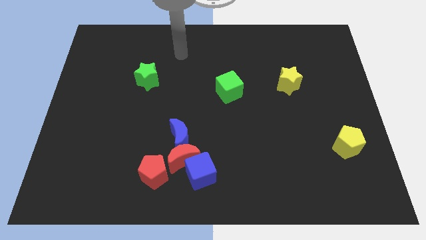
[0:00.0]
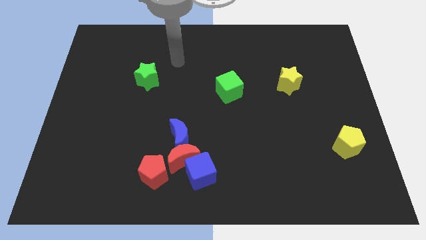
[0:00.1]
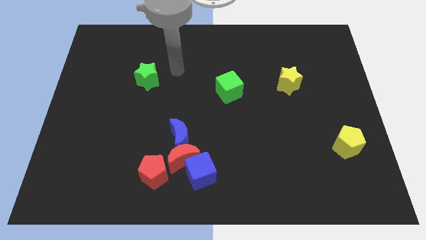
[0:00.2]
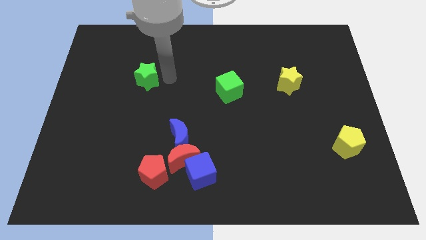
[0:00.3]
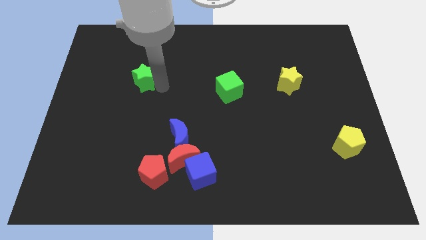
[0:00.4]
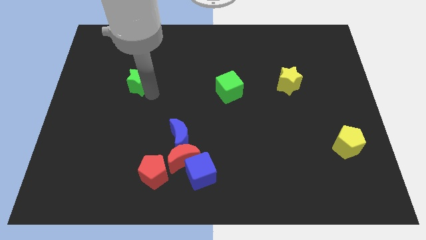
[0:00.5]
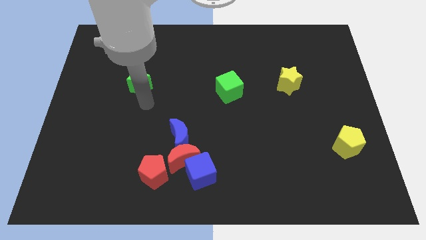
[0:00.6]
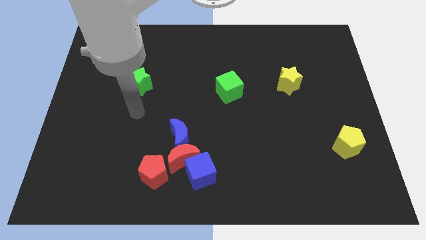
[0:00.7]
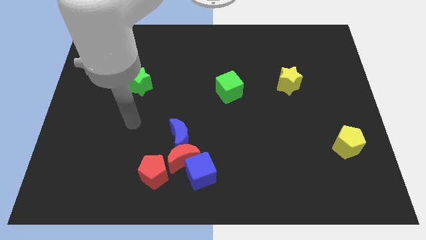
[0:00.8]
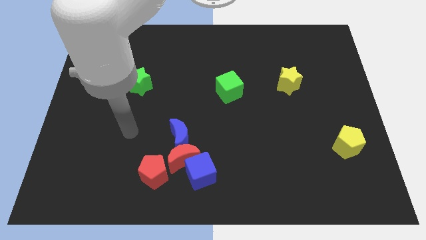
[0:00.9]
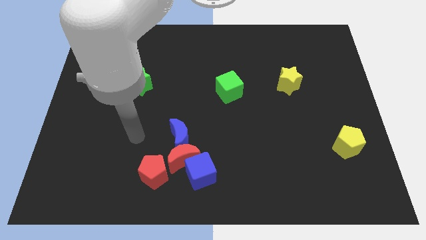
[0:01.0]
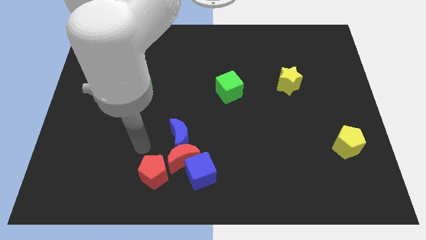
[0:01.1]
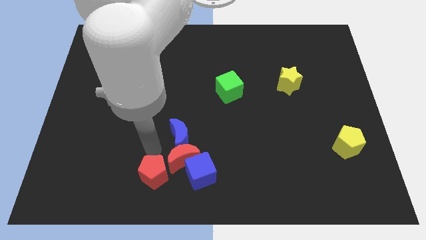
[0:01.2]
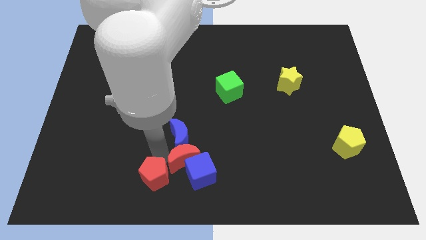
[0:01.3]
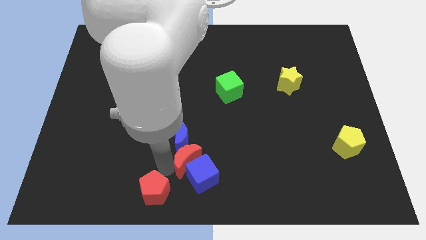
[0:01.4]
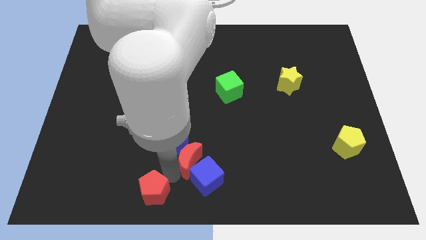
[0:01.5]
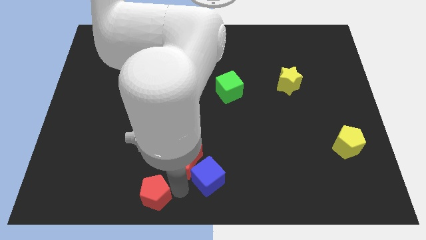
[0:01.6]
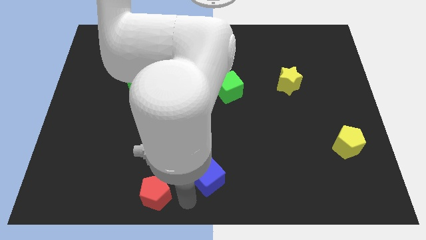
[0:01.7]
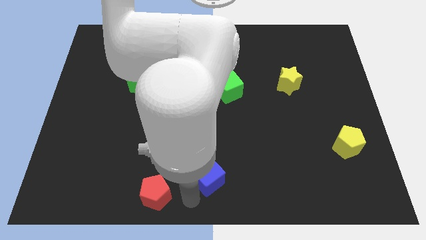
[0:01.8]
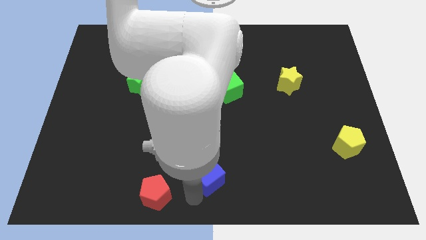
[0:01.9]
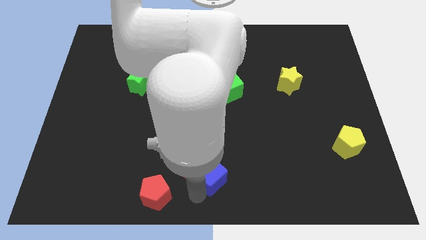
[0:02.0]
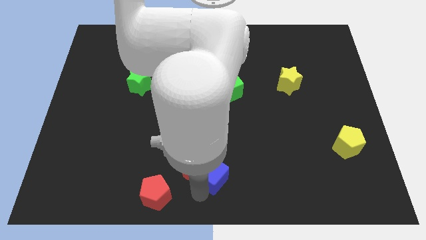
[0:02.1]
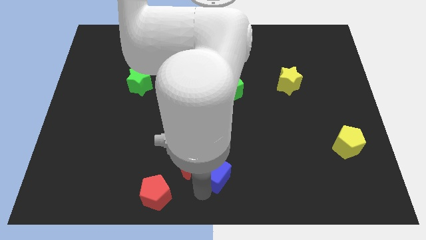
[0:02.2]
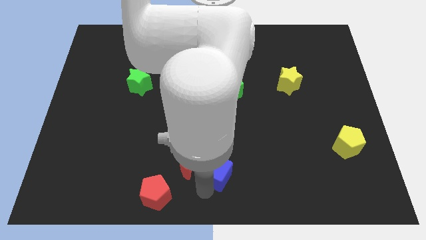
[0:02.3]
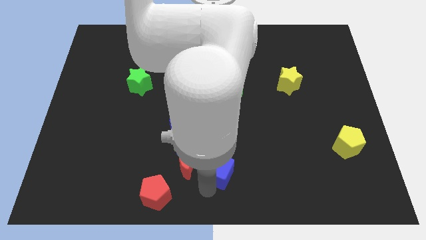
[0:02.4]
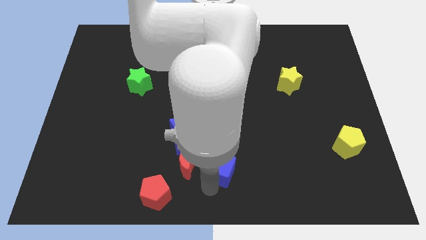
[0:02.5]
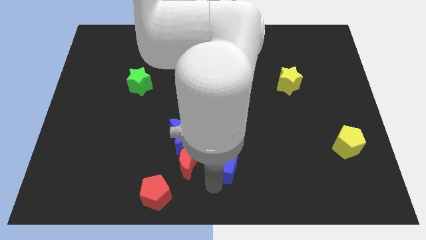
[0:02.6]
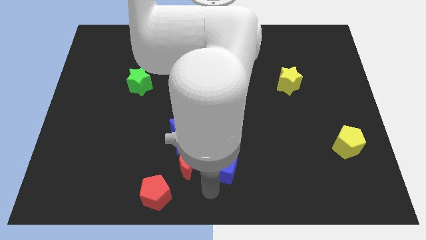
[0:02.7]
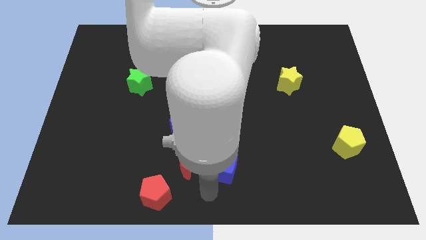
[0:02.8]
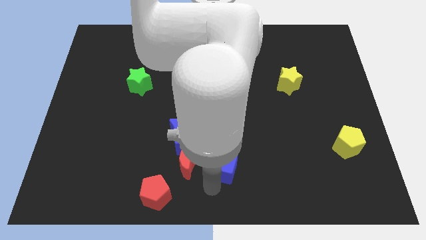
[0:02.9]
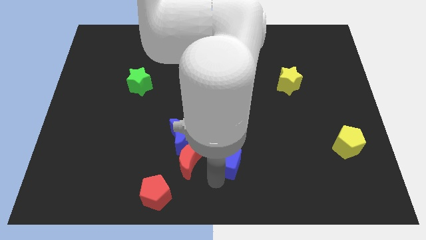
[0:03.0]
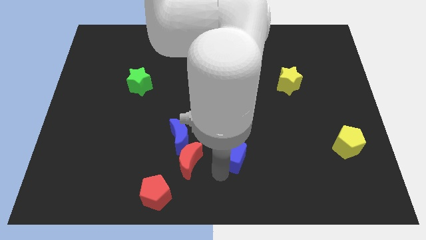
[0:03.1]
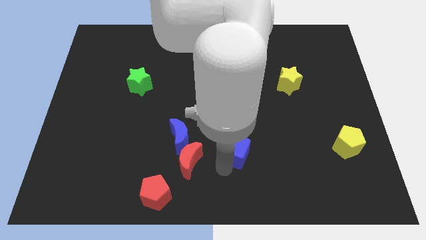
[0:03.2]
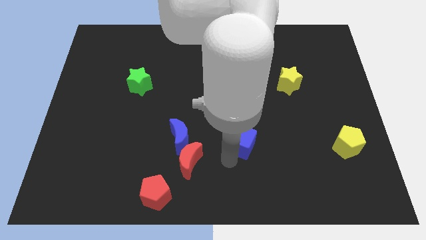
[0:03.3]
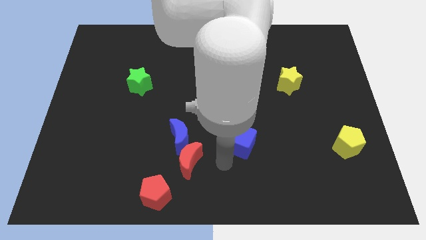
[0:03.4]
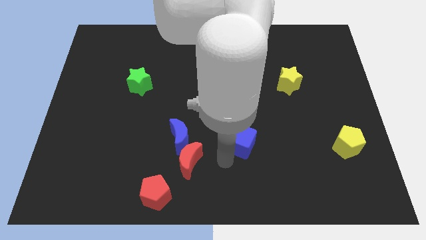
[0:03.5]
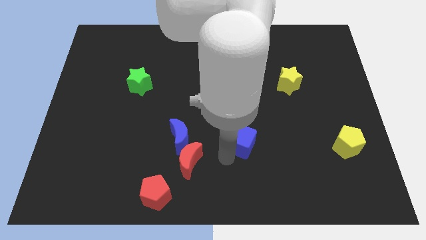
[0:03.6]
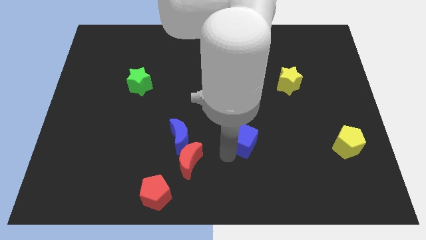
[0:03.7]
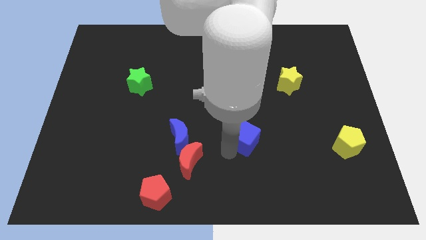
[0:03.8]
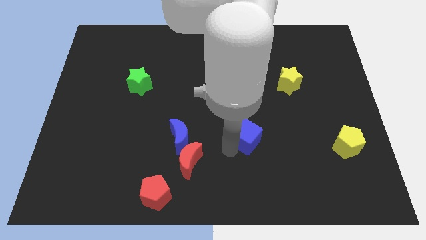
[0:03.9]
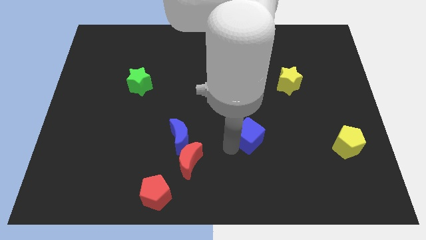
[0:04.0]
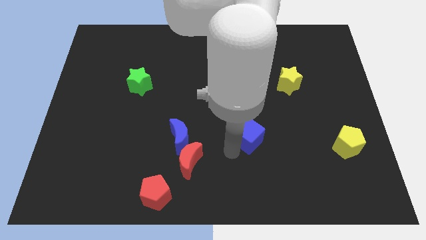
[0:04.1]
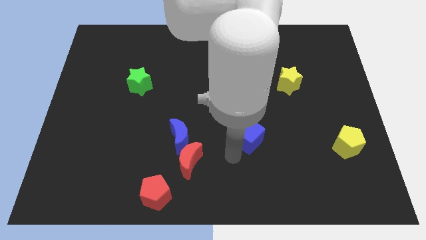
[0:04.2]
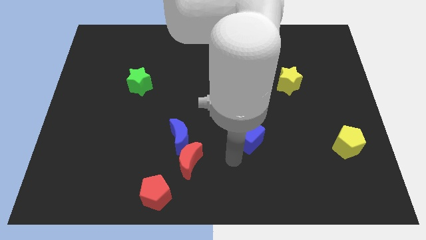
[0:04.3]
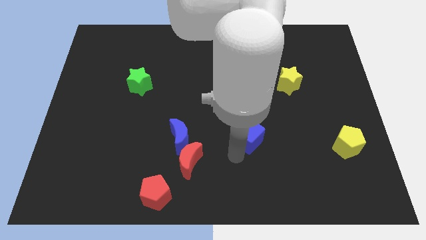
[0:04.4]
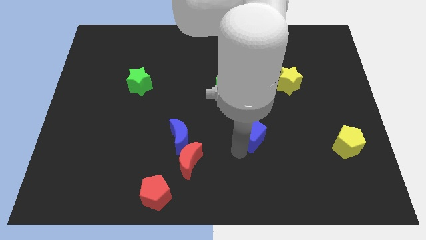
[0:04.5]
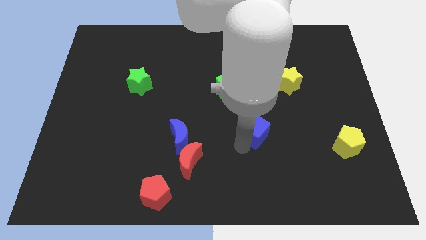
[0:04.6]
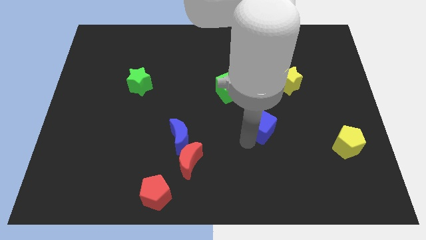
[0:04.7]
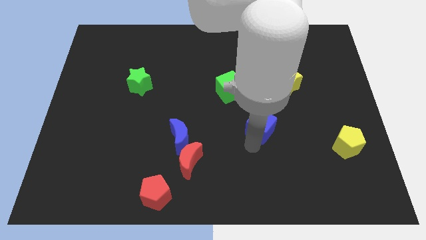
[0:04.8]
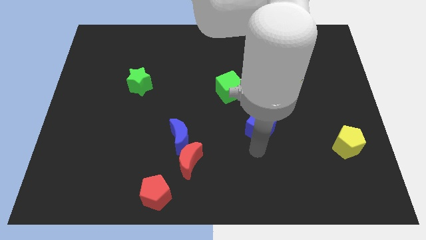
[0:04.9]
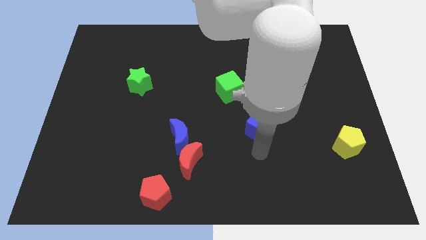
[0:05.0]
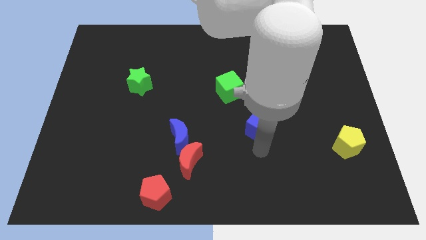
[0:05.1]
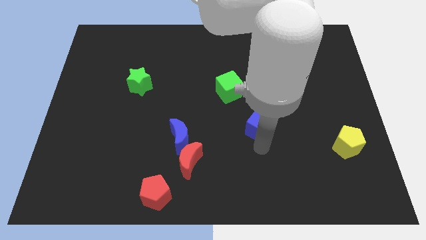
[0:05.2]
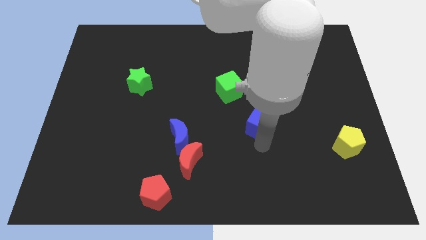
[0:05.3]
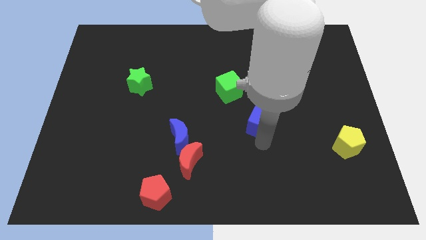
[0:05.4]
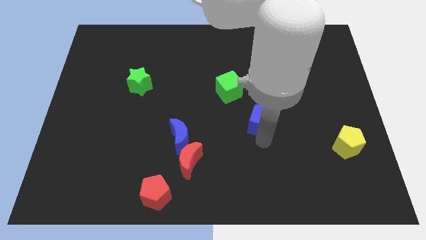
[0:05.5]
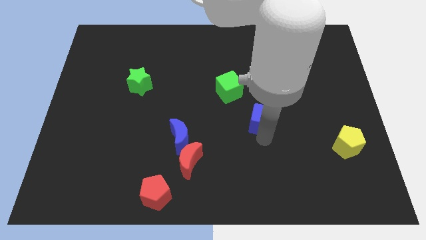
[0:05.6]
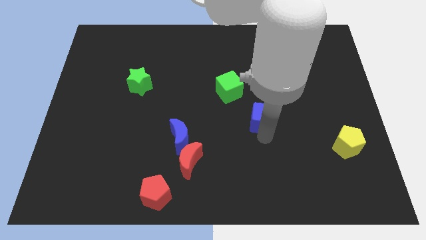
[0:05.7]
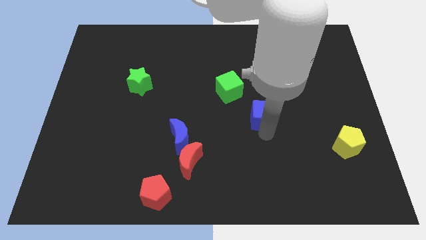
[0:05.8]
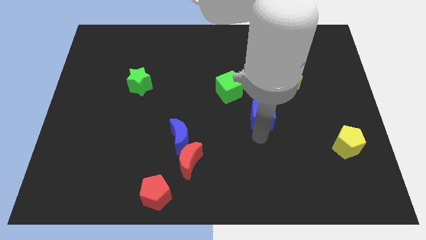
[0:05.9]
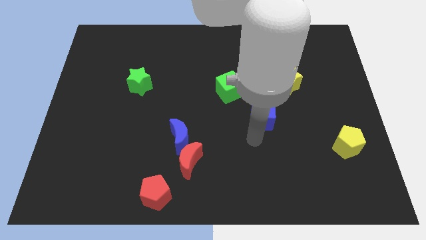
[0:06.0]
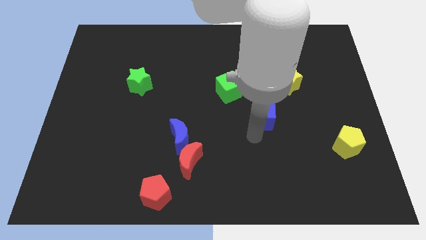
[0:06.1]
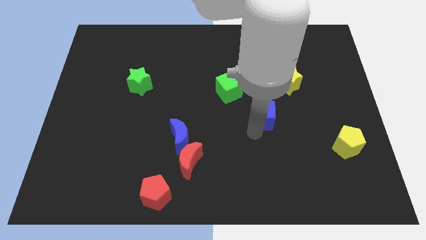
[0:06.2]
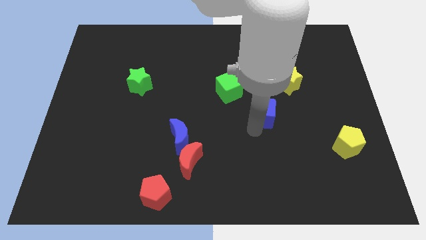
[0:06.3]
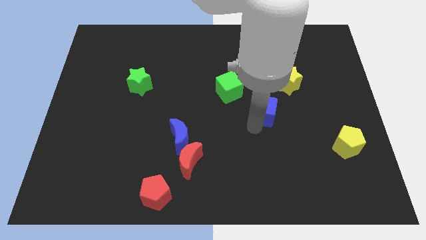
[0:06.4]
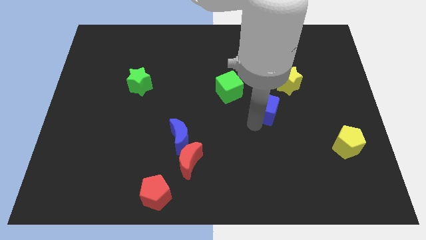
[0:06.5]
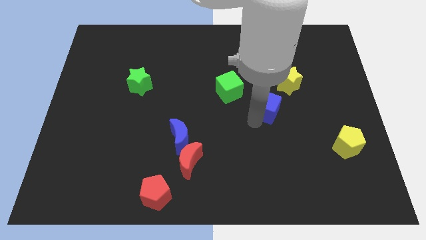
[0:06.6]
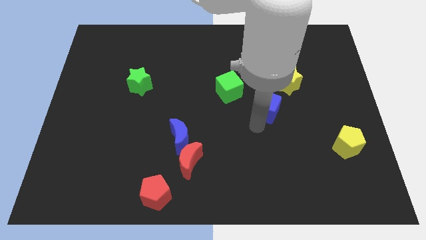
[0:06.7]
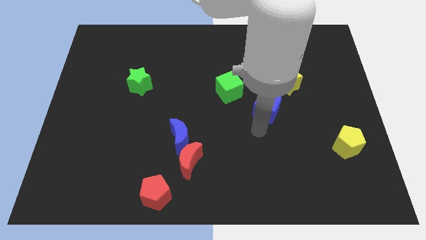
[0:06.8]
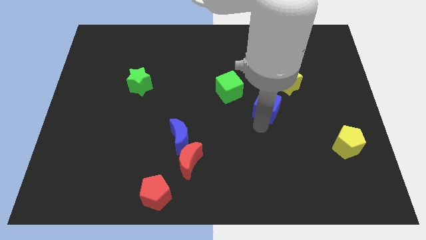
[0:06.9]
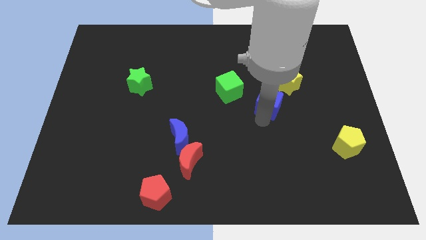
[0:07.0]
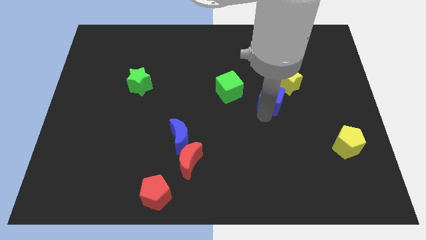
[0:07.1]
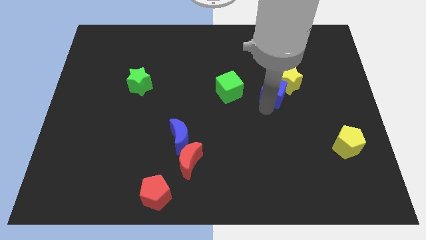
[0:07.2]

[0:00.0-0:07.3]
put the blue cube towards the yellow star

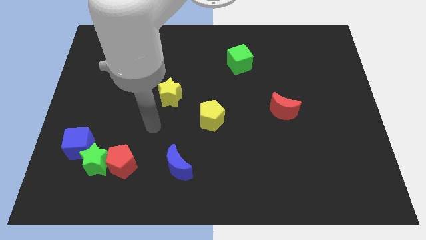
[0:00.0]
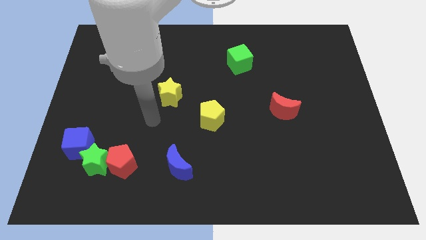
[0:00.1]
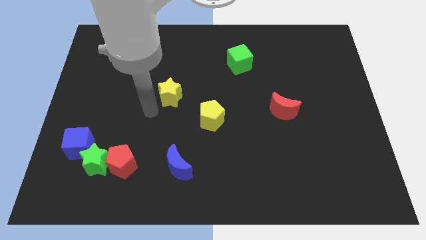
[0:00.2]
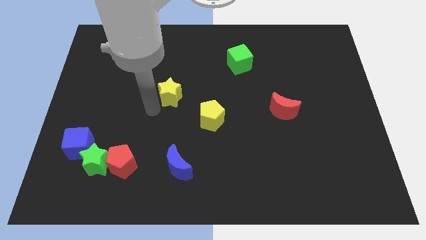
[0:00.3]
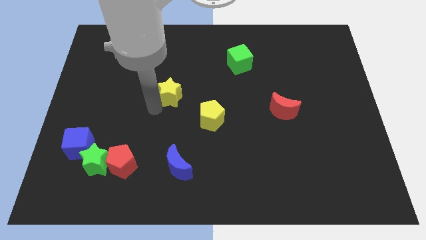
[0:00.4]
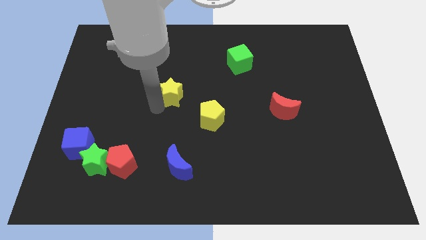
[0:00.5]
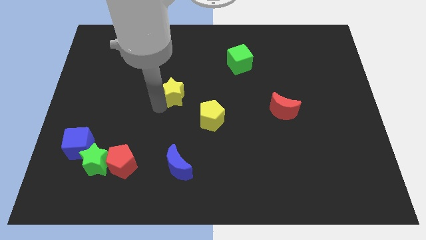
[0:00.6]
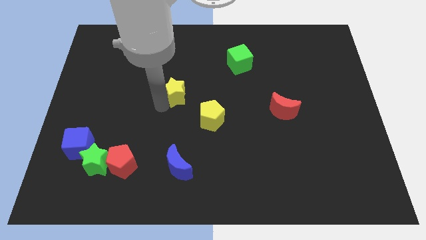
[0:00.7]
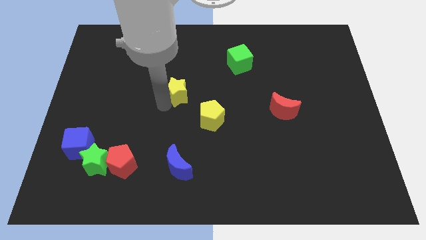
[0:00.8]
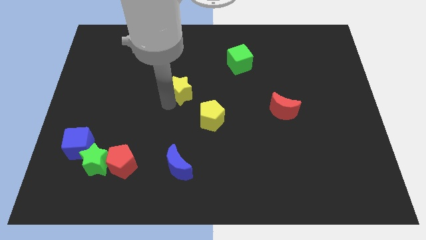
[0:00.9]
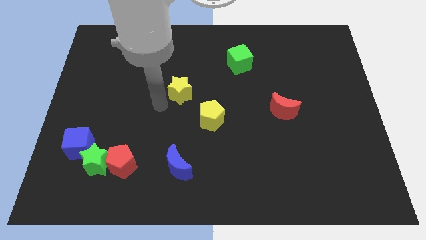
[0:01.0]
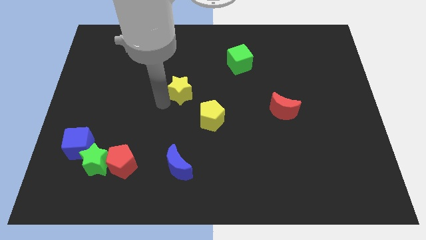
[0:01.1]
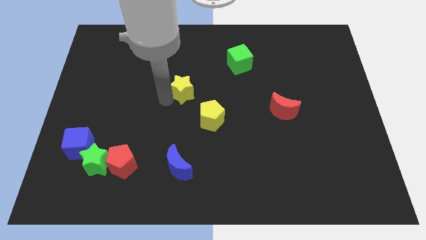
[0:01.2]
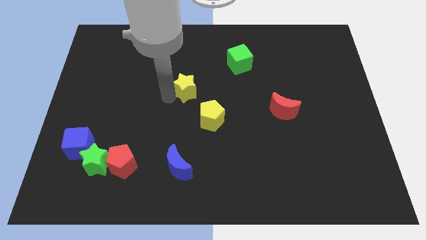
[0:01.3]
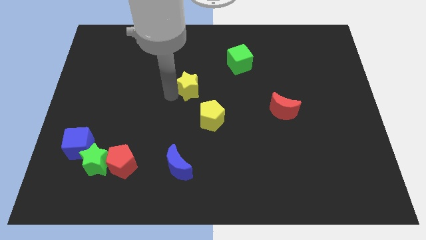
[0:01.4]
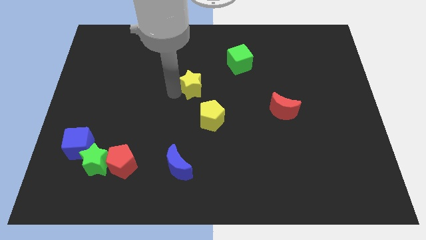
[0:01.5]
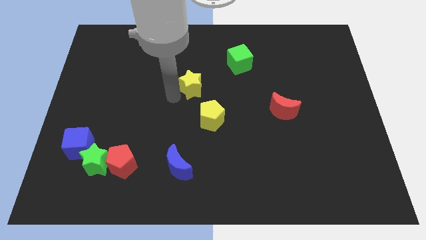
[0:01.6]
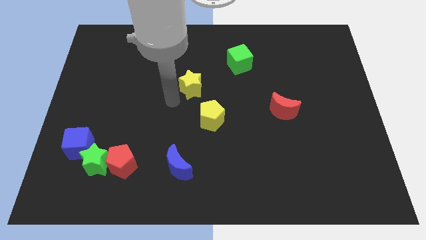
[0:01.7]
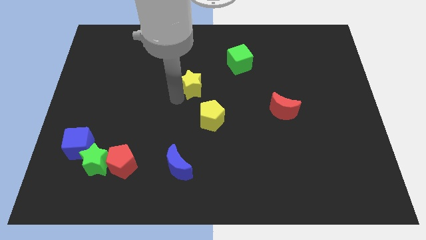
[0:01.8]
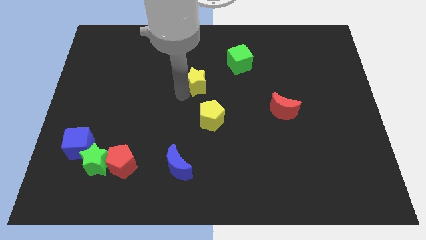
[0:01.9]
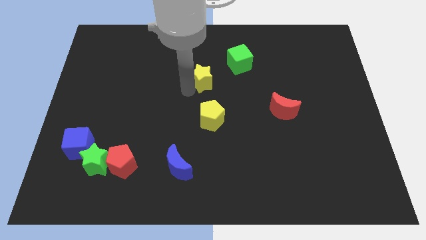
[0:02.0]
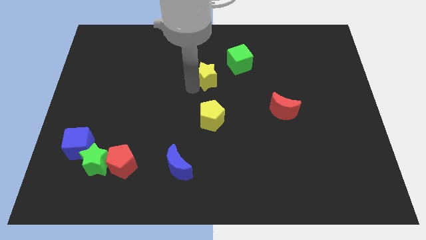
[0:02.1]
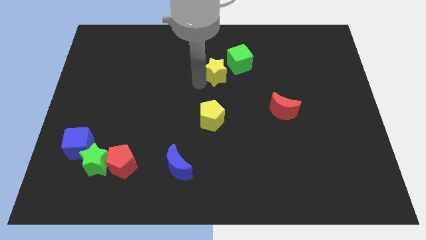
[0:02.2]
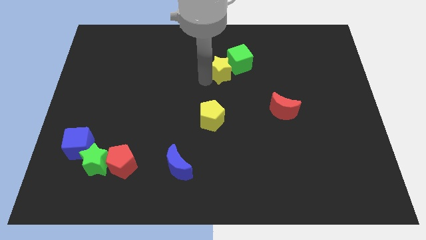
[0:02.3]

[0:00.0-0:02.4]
put the yellow star towards the green cube
